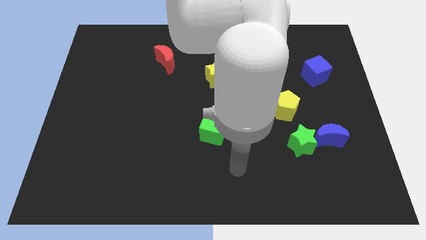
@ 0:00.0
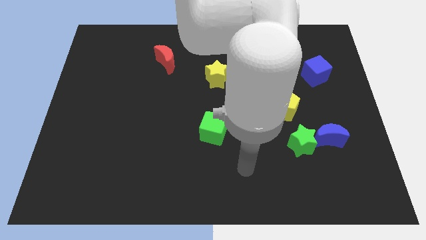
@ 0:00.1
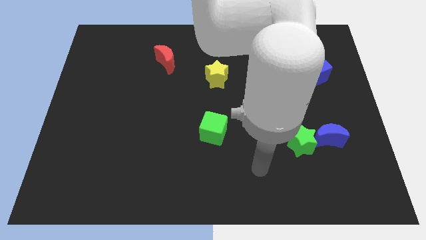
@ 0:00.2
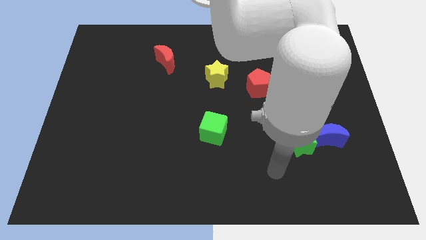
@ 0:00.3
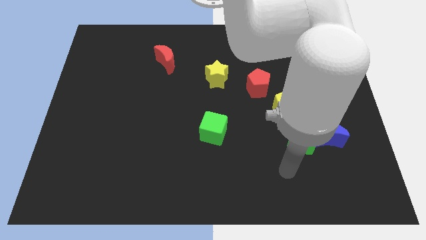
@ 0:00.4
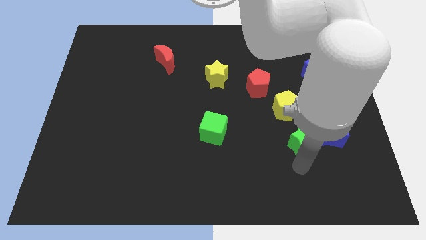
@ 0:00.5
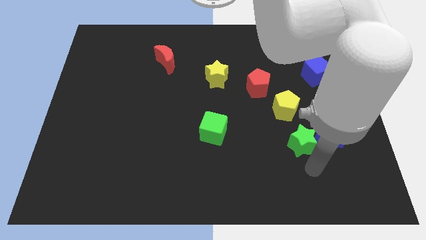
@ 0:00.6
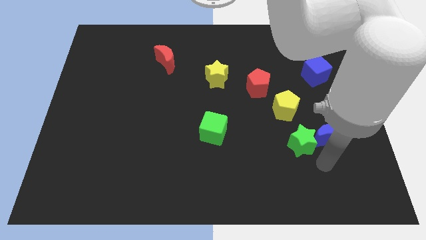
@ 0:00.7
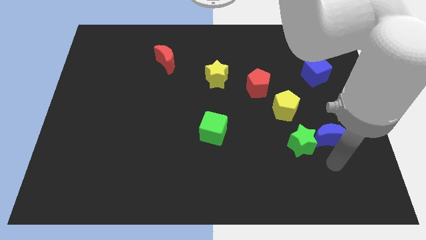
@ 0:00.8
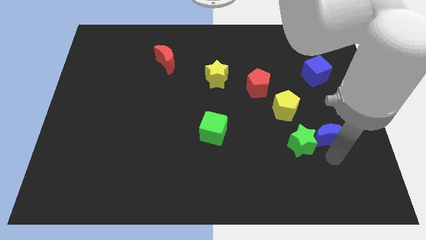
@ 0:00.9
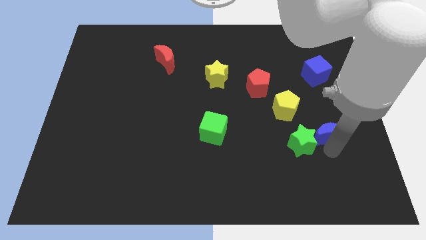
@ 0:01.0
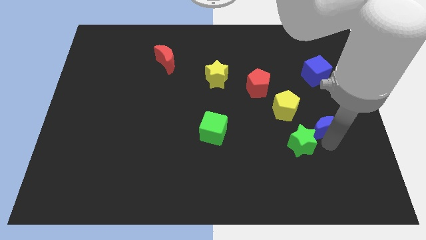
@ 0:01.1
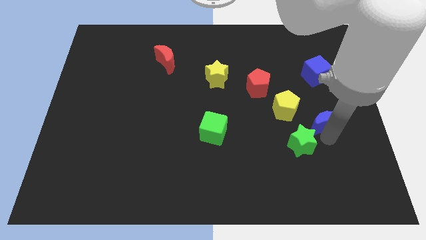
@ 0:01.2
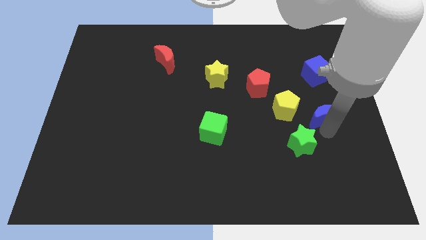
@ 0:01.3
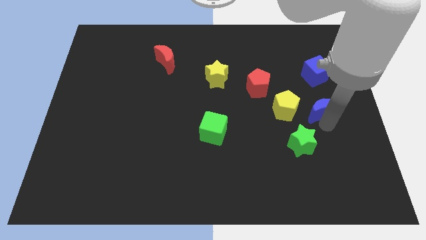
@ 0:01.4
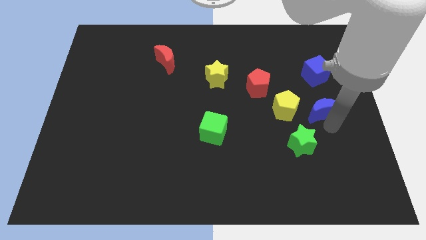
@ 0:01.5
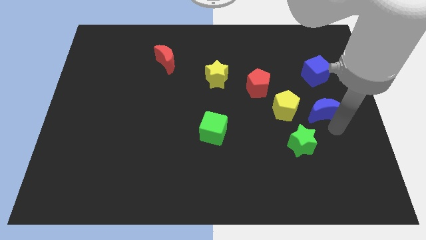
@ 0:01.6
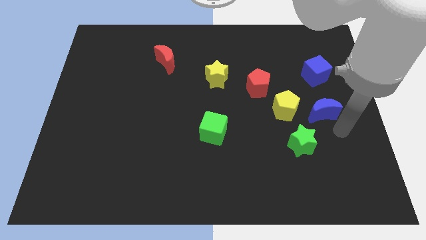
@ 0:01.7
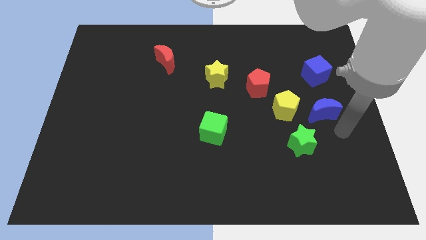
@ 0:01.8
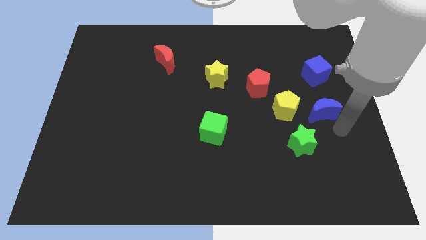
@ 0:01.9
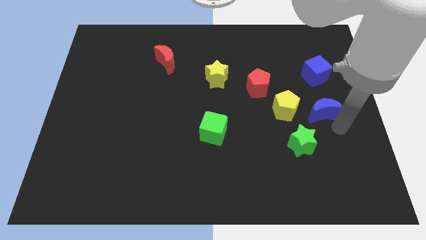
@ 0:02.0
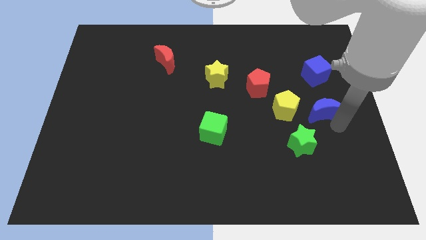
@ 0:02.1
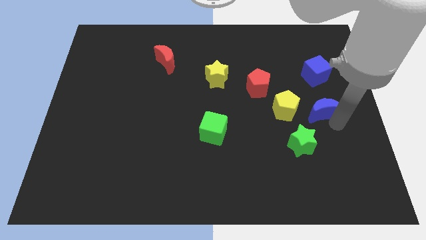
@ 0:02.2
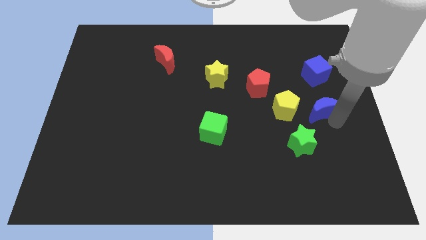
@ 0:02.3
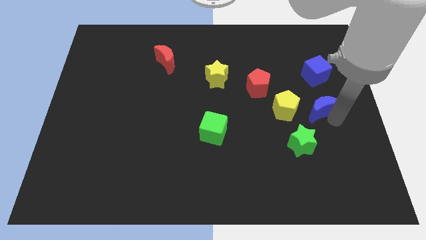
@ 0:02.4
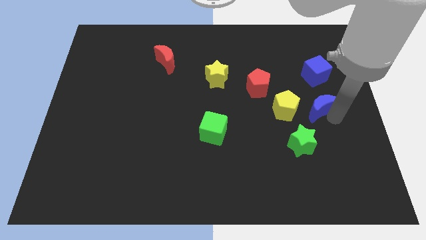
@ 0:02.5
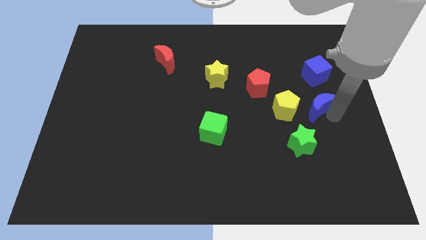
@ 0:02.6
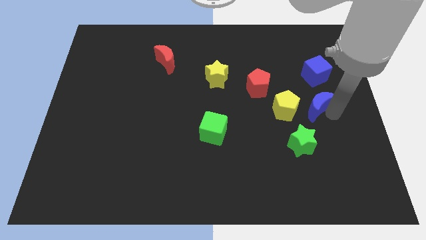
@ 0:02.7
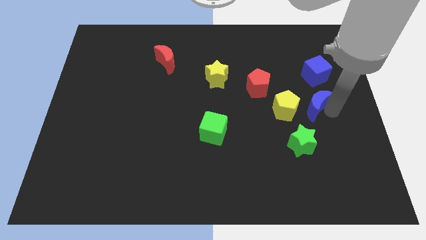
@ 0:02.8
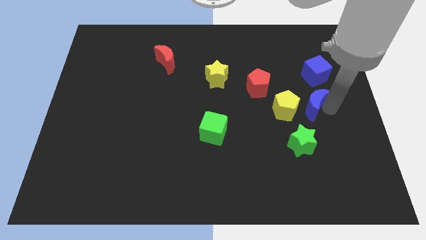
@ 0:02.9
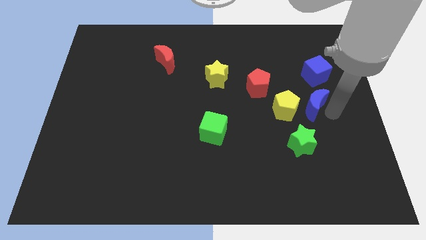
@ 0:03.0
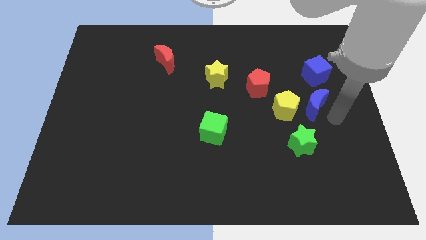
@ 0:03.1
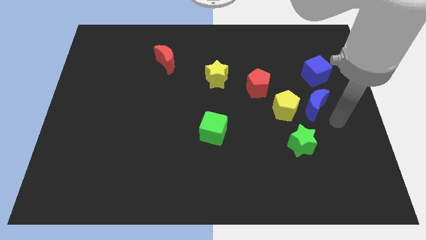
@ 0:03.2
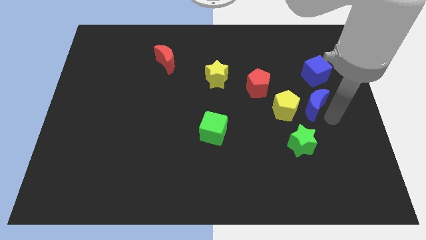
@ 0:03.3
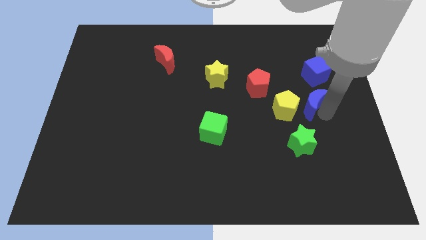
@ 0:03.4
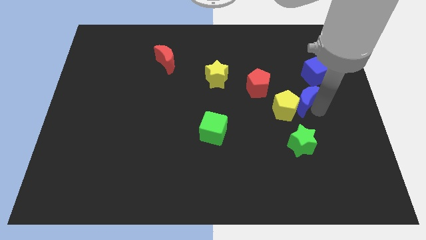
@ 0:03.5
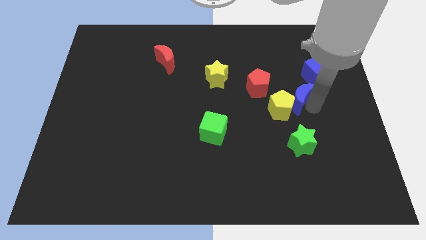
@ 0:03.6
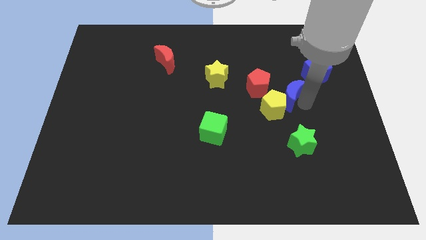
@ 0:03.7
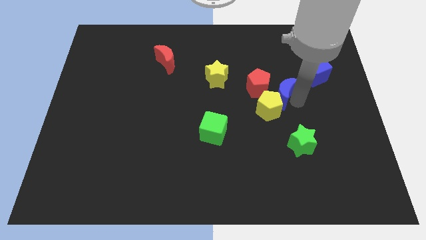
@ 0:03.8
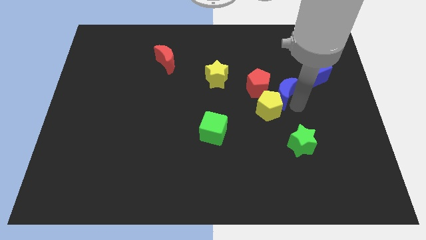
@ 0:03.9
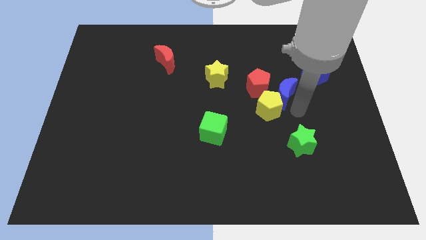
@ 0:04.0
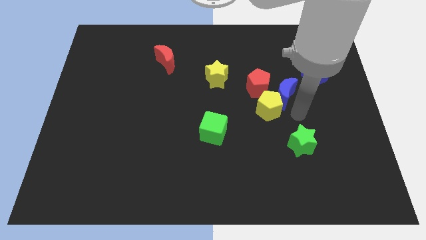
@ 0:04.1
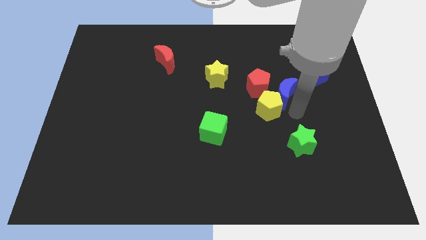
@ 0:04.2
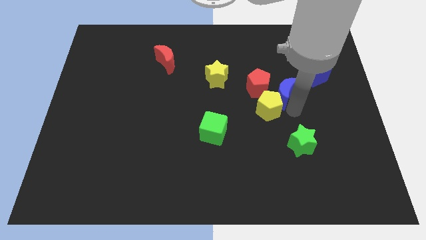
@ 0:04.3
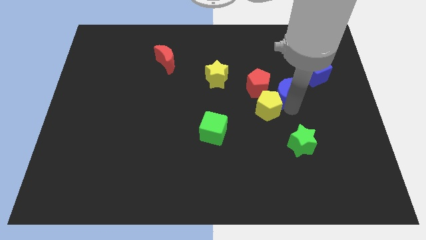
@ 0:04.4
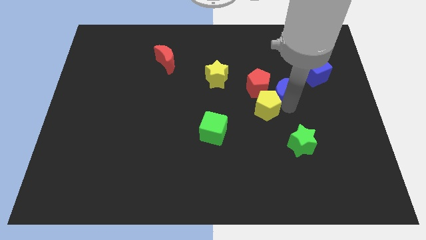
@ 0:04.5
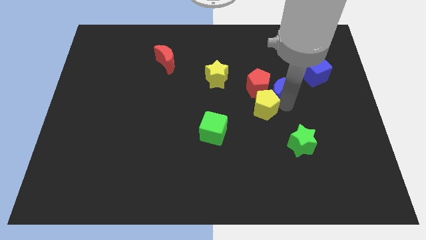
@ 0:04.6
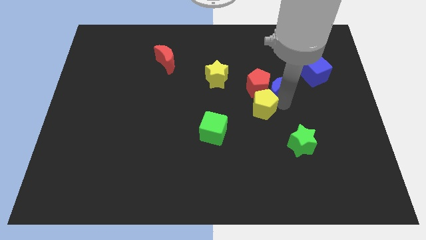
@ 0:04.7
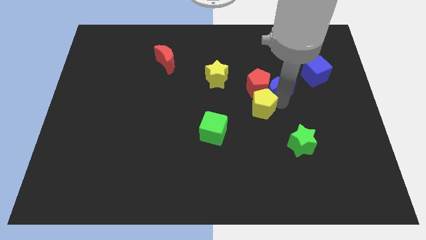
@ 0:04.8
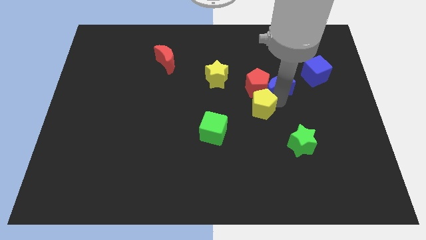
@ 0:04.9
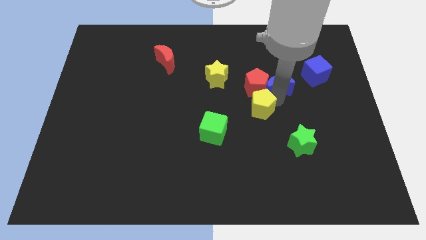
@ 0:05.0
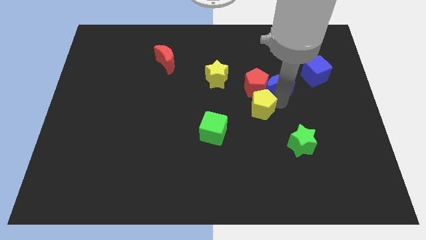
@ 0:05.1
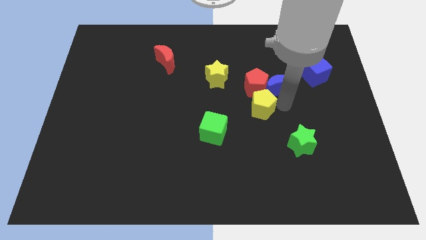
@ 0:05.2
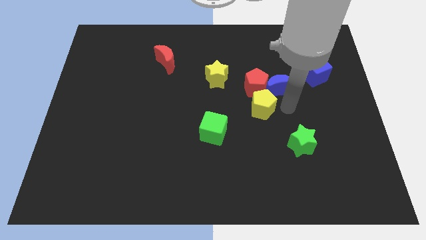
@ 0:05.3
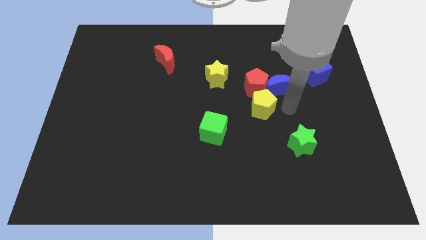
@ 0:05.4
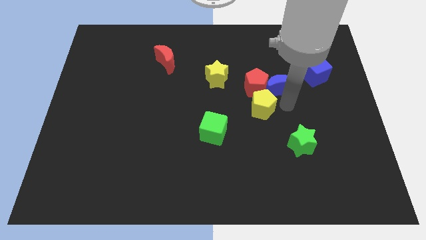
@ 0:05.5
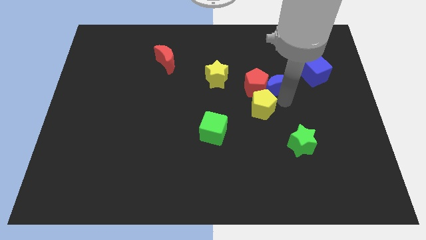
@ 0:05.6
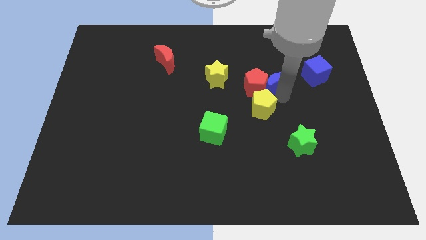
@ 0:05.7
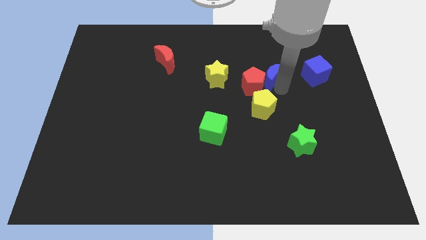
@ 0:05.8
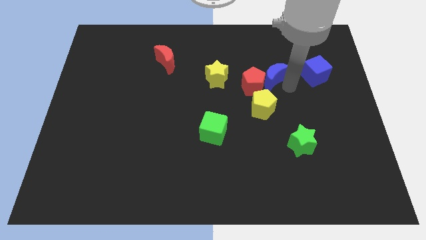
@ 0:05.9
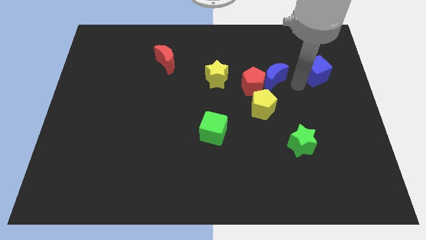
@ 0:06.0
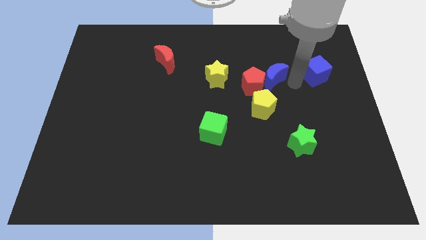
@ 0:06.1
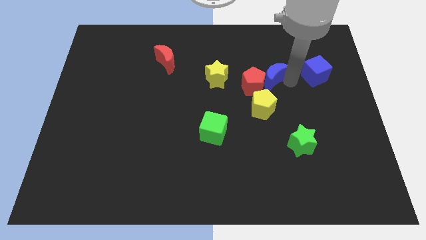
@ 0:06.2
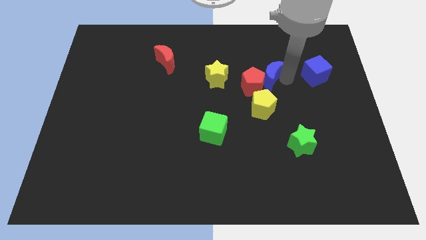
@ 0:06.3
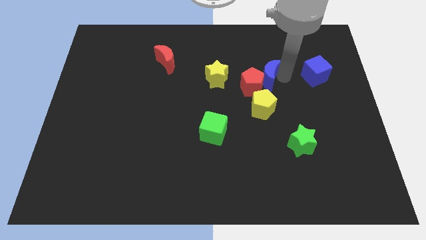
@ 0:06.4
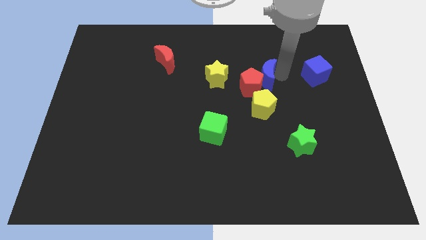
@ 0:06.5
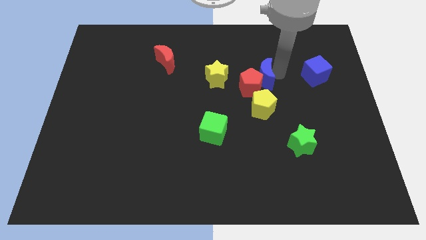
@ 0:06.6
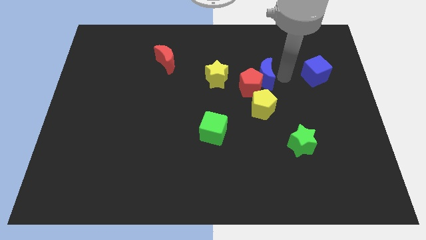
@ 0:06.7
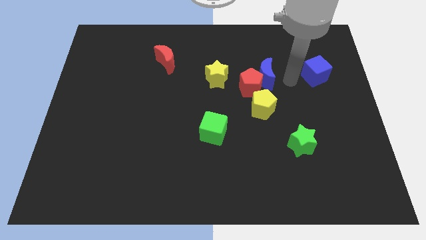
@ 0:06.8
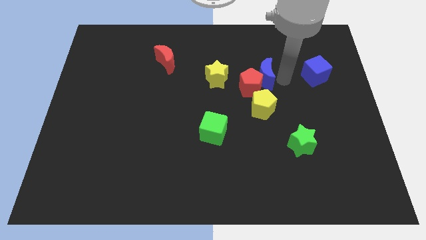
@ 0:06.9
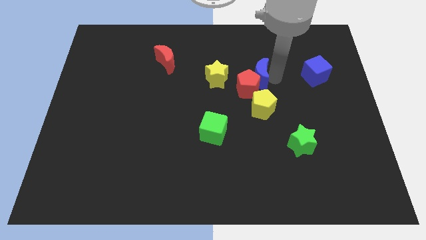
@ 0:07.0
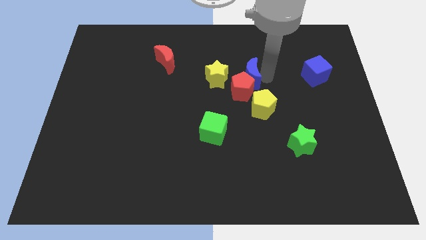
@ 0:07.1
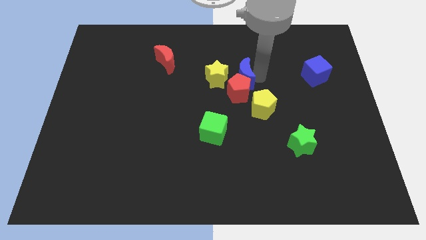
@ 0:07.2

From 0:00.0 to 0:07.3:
slide the blue moon to the top left of the red pentagon
